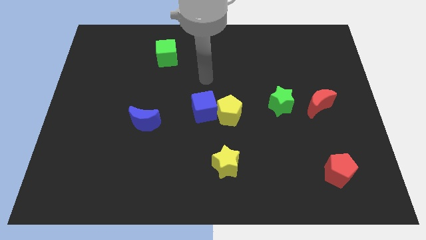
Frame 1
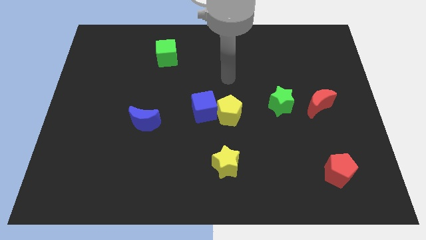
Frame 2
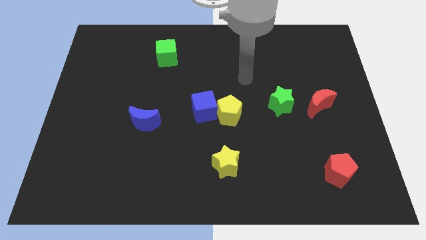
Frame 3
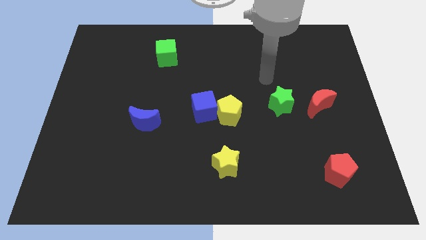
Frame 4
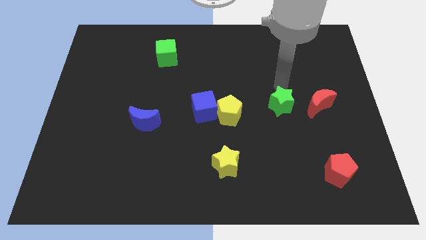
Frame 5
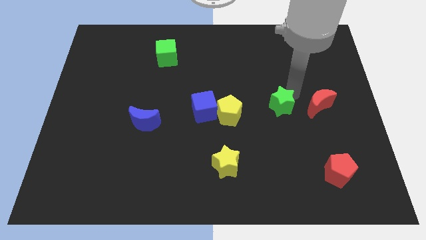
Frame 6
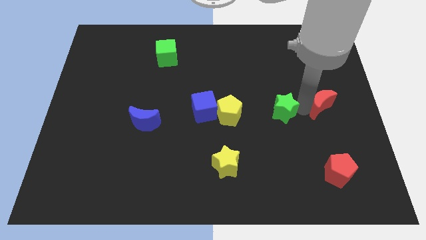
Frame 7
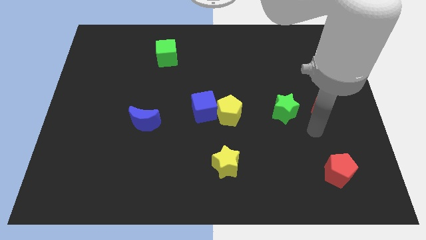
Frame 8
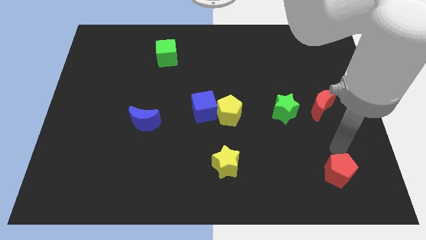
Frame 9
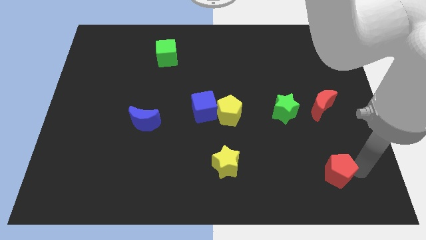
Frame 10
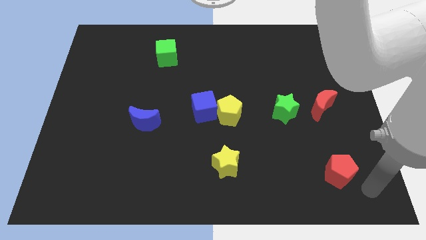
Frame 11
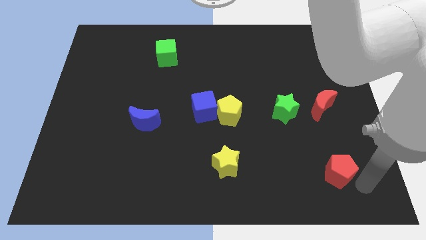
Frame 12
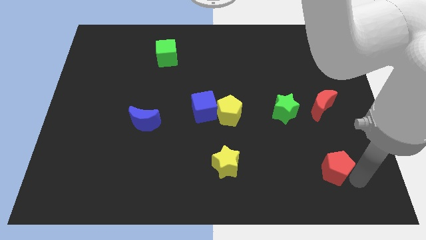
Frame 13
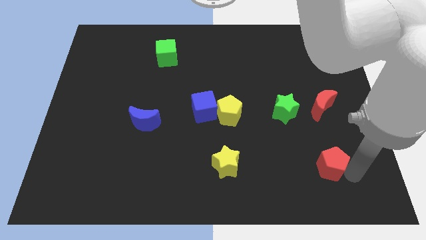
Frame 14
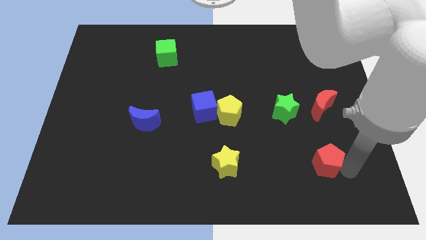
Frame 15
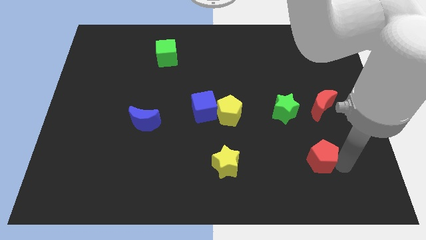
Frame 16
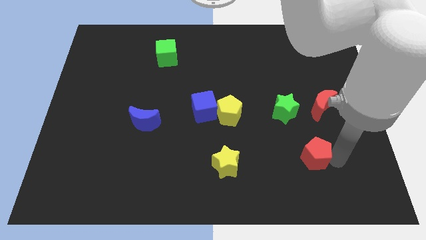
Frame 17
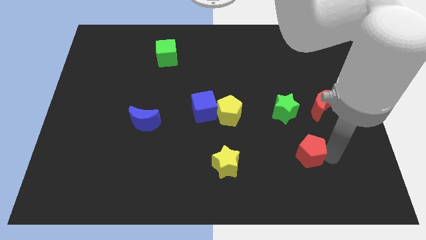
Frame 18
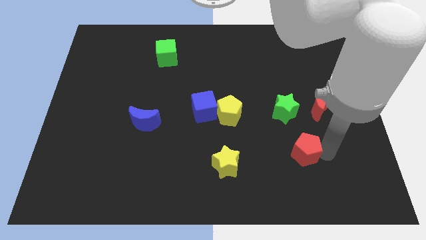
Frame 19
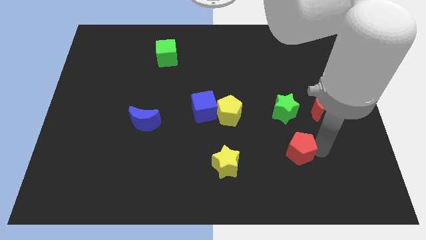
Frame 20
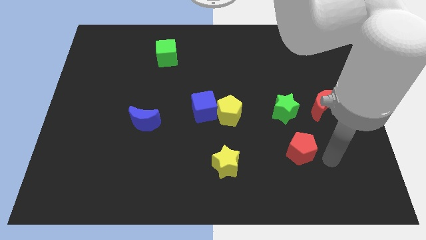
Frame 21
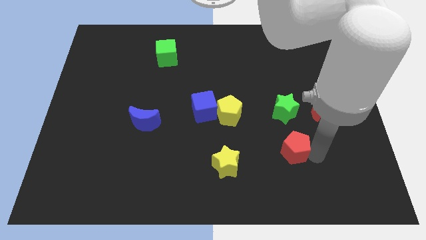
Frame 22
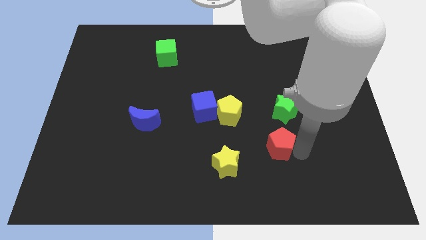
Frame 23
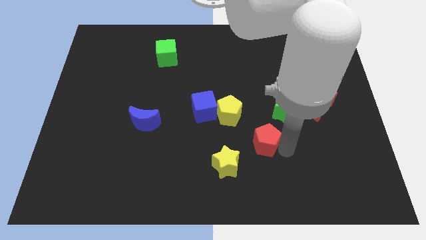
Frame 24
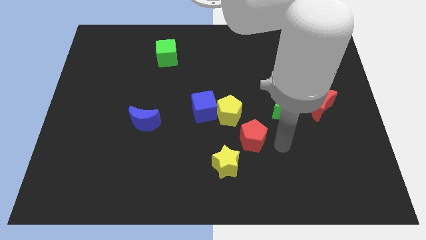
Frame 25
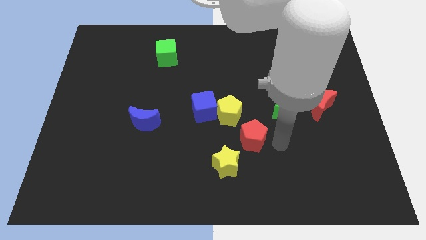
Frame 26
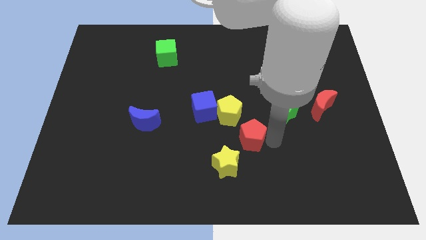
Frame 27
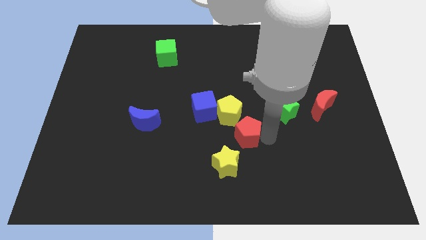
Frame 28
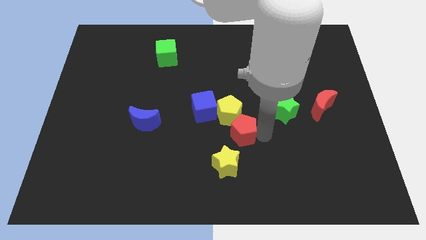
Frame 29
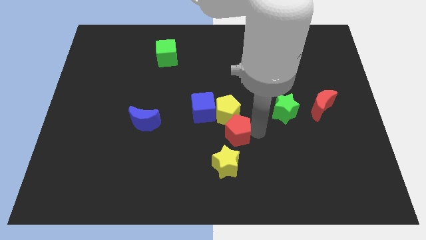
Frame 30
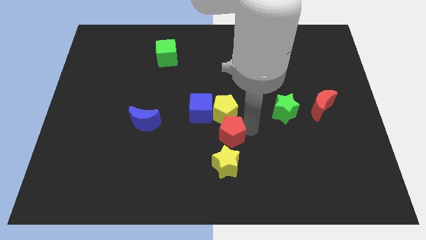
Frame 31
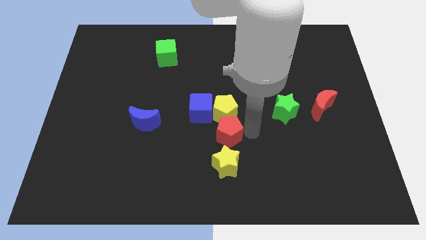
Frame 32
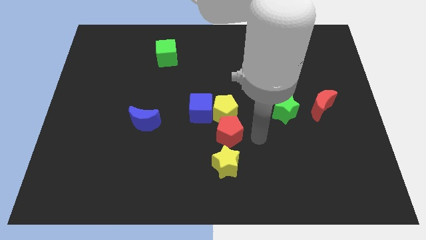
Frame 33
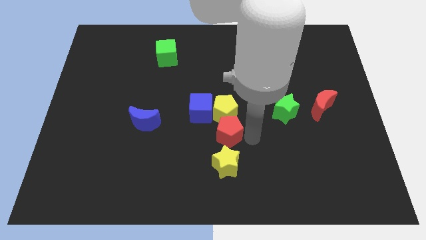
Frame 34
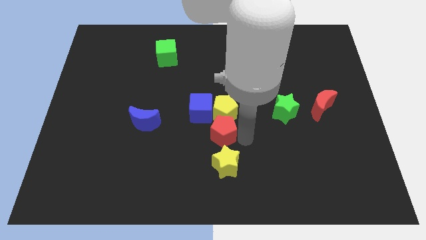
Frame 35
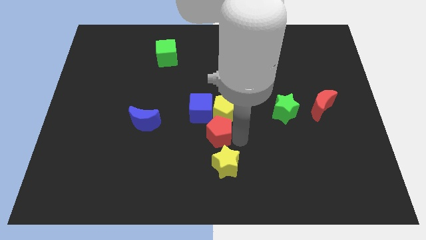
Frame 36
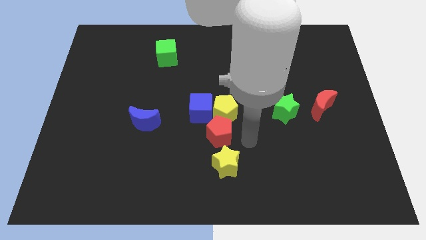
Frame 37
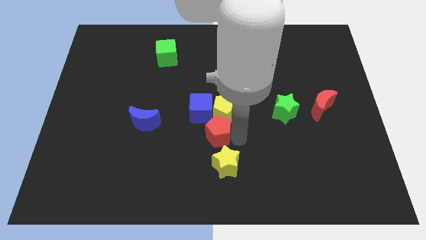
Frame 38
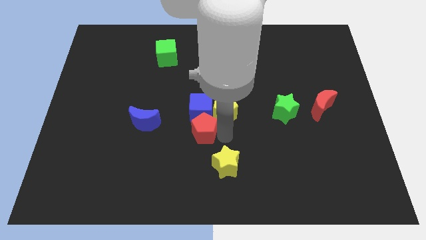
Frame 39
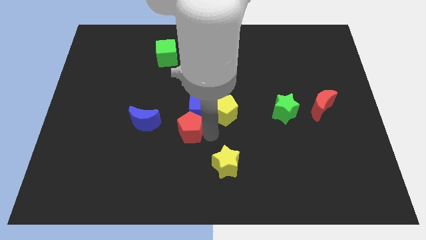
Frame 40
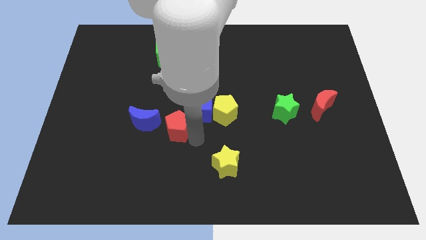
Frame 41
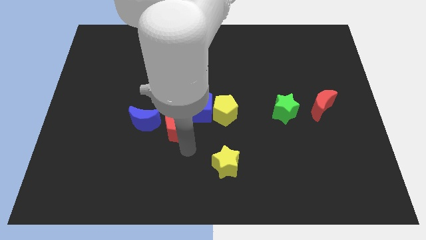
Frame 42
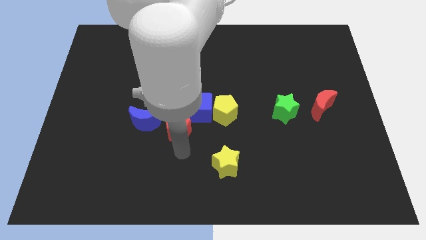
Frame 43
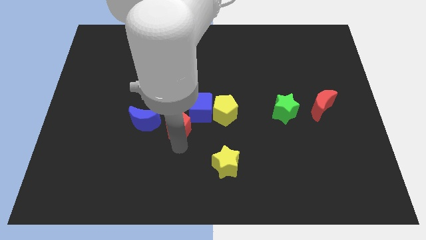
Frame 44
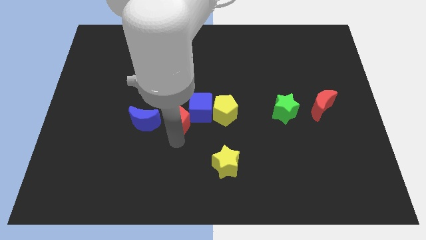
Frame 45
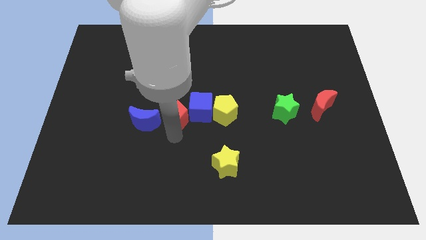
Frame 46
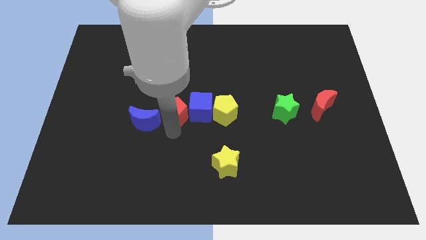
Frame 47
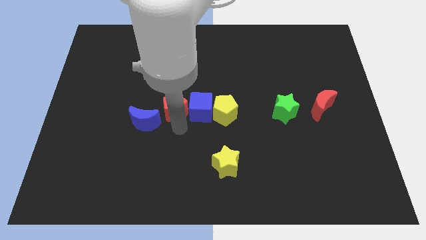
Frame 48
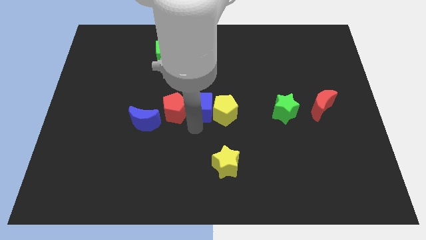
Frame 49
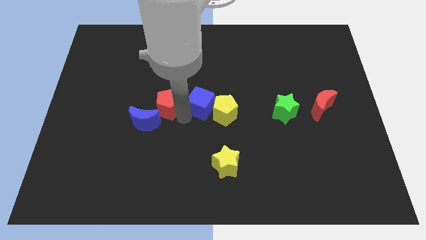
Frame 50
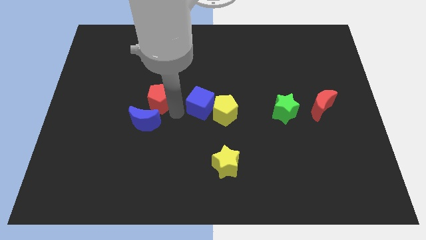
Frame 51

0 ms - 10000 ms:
move the red pentagon to the top side of the blue moon

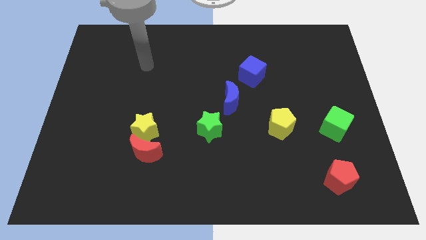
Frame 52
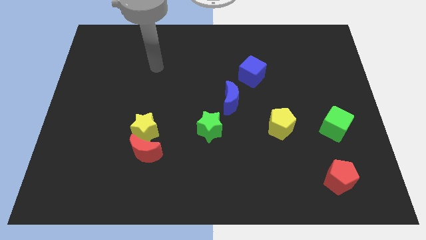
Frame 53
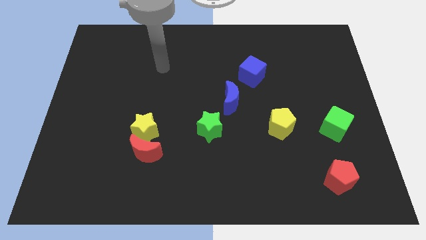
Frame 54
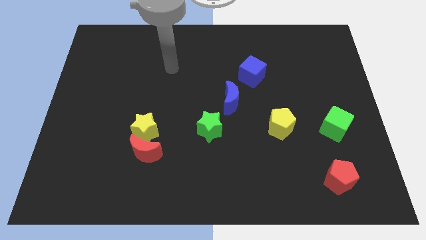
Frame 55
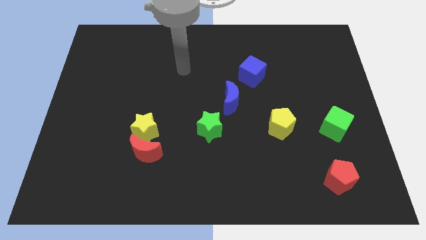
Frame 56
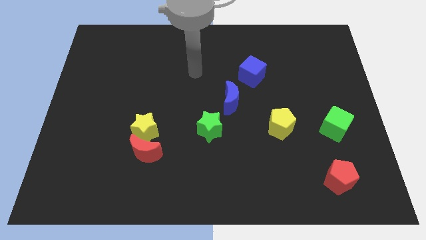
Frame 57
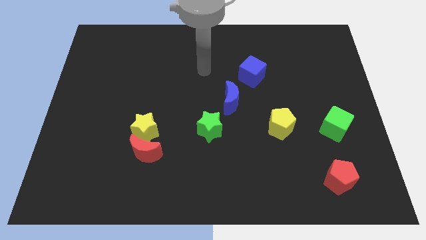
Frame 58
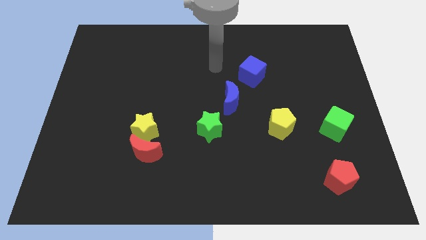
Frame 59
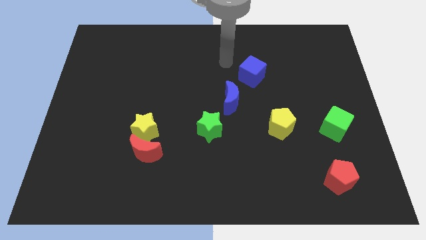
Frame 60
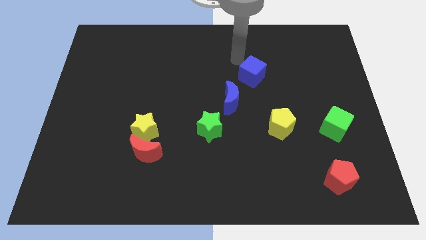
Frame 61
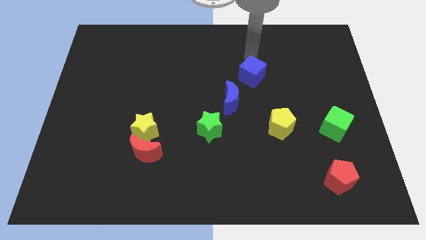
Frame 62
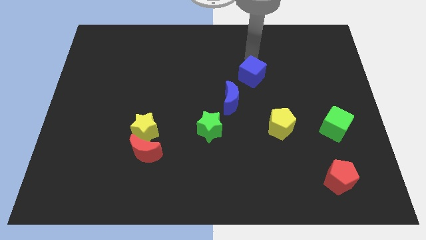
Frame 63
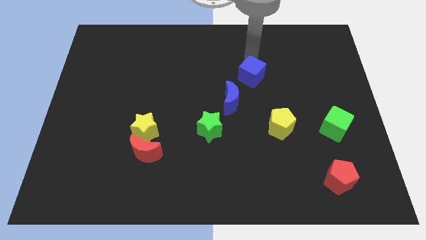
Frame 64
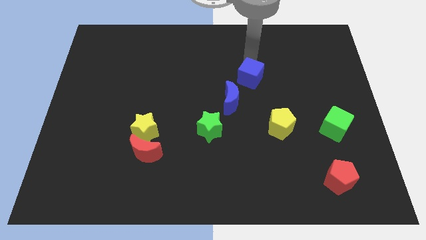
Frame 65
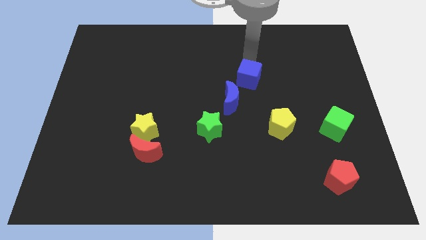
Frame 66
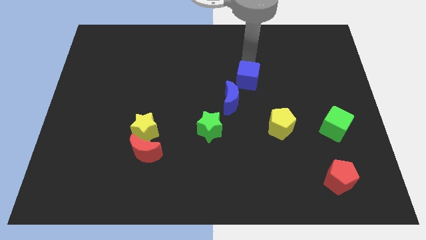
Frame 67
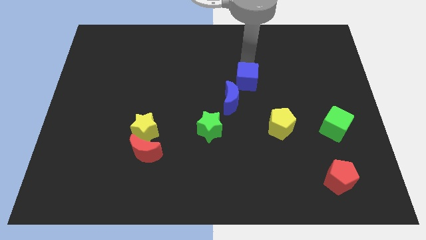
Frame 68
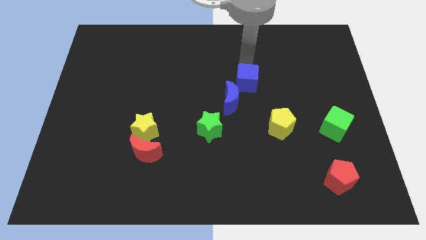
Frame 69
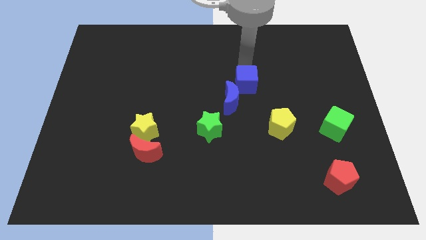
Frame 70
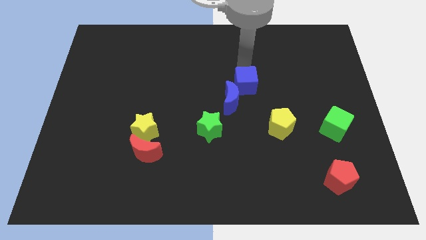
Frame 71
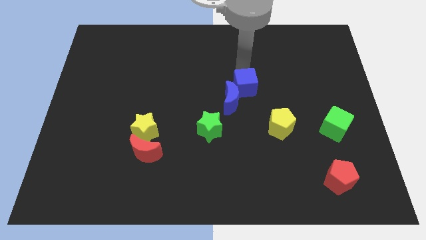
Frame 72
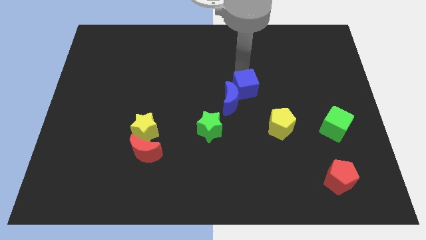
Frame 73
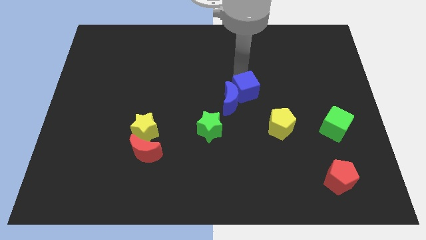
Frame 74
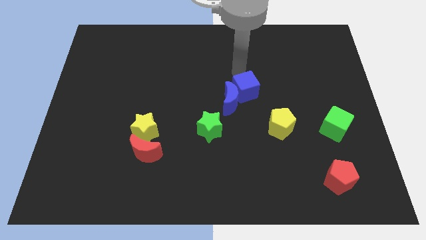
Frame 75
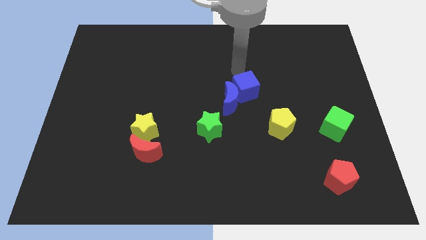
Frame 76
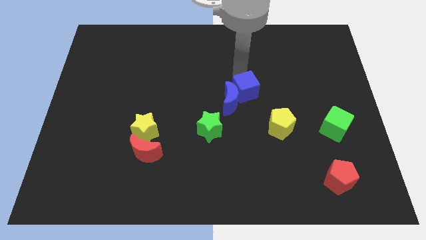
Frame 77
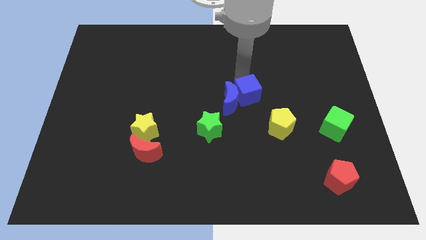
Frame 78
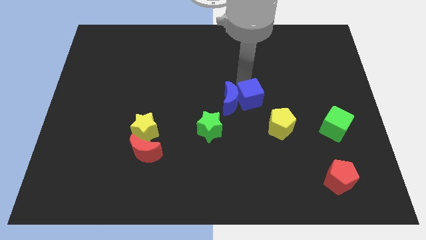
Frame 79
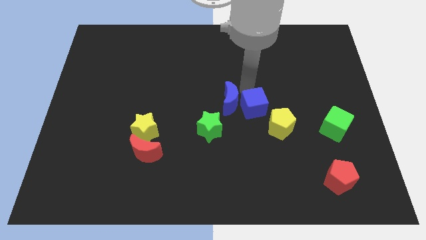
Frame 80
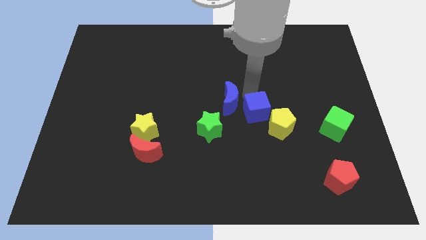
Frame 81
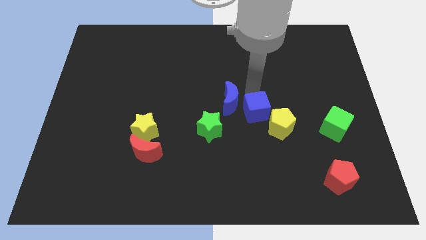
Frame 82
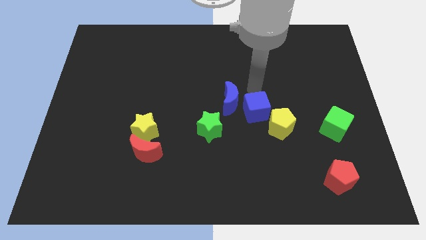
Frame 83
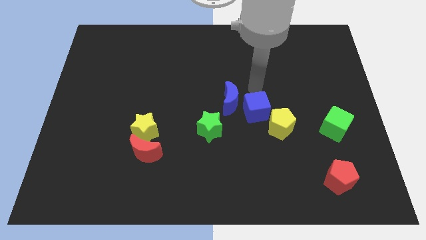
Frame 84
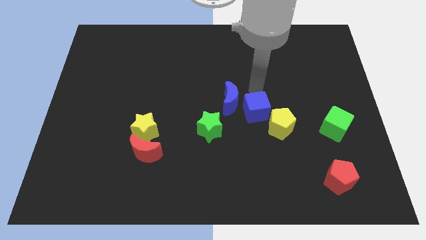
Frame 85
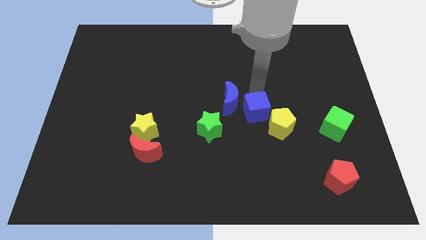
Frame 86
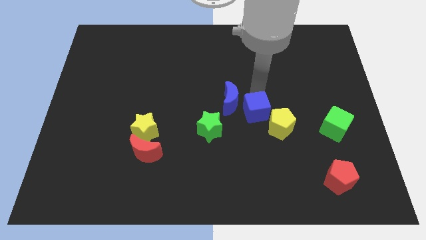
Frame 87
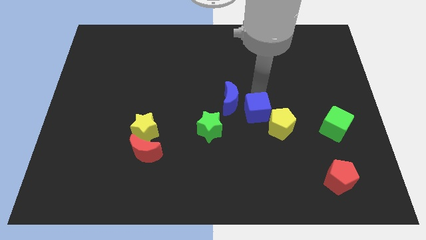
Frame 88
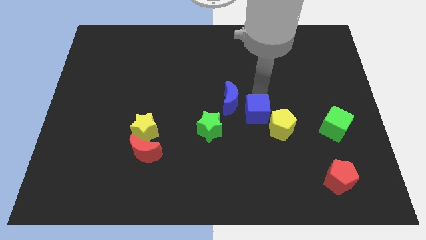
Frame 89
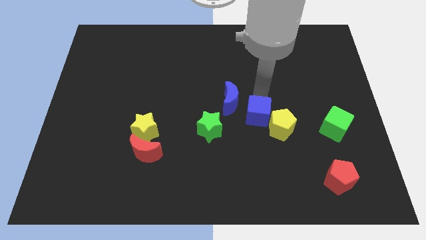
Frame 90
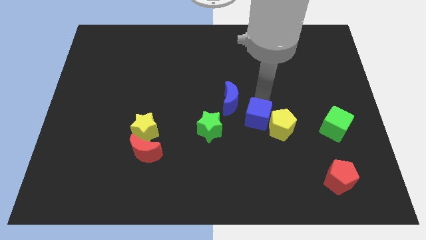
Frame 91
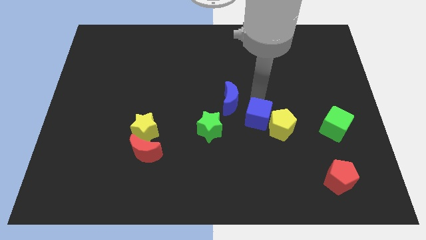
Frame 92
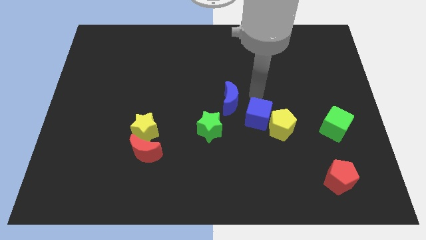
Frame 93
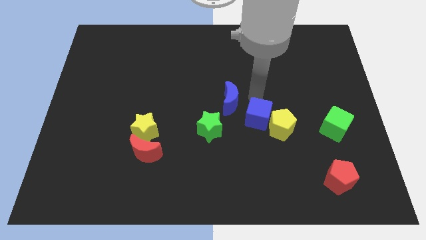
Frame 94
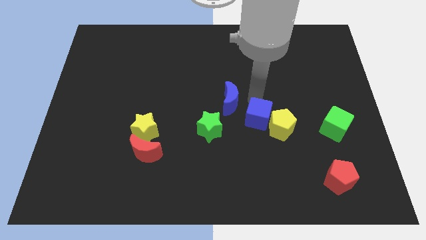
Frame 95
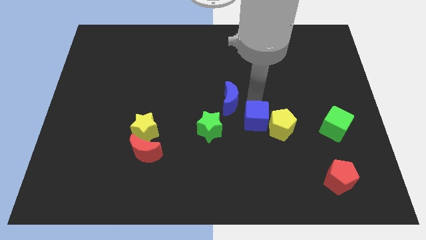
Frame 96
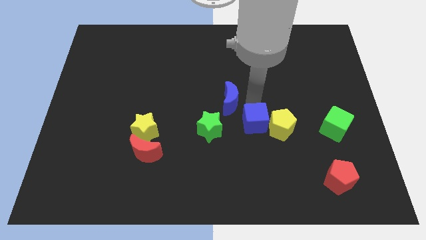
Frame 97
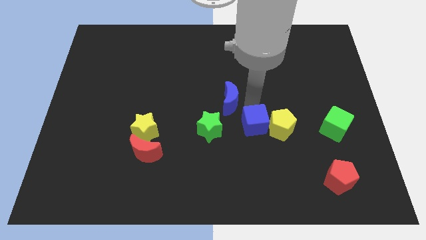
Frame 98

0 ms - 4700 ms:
push the blue cube to the bottom left side of the yellow pentagon
